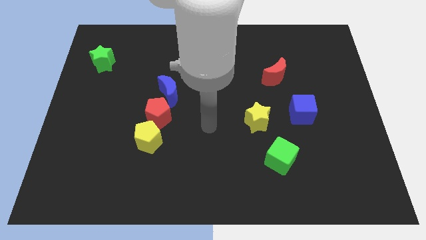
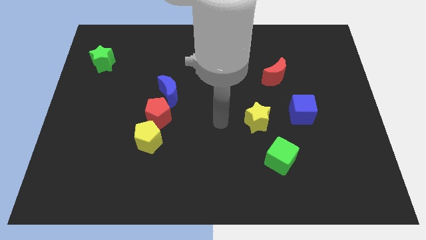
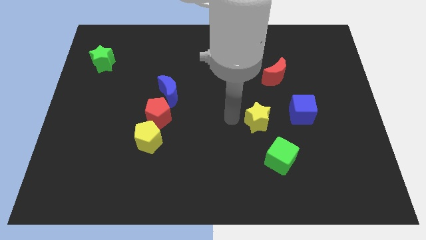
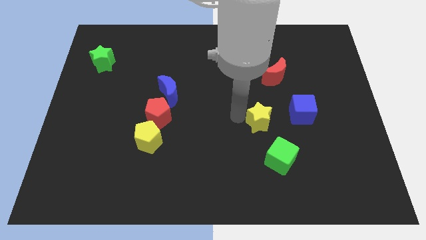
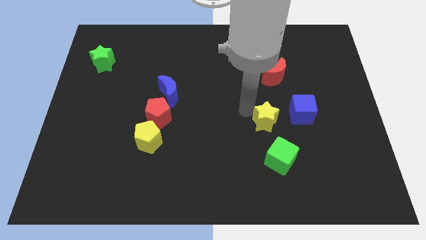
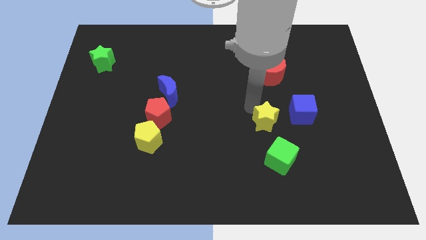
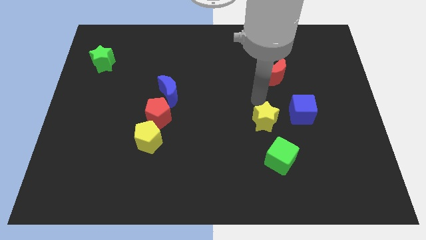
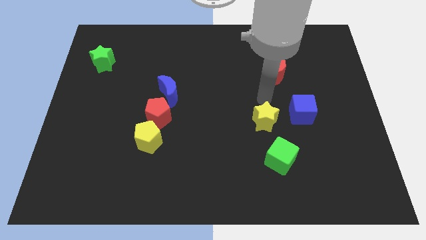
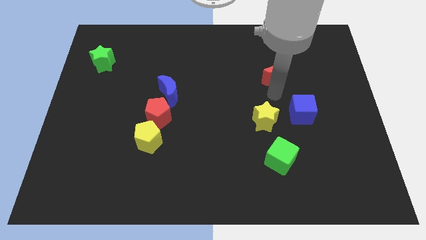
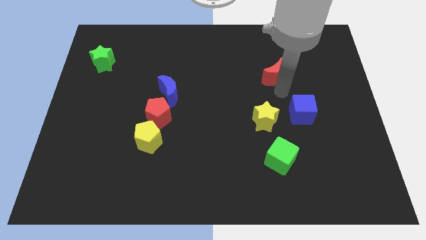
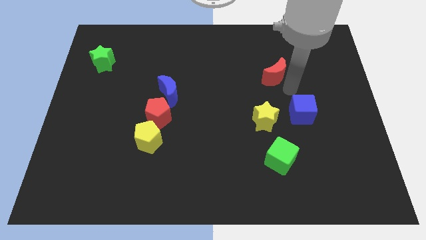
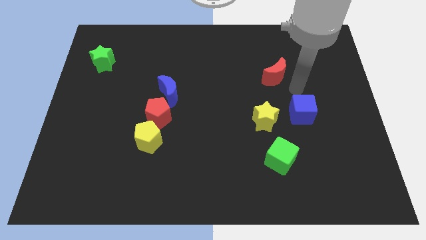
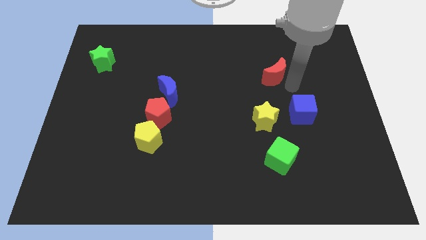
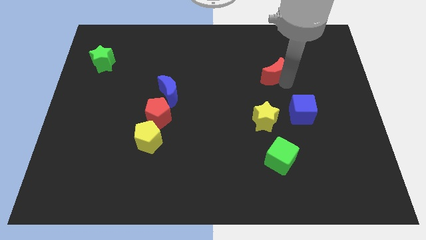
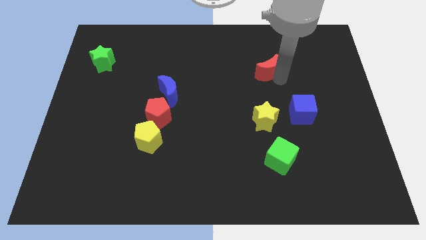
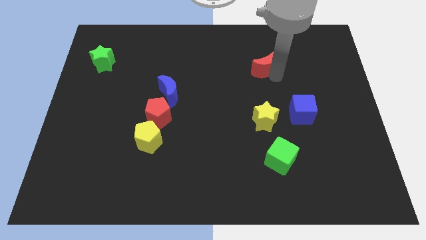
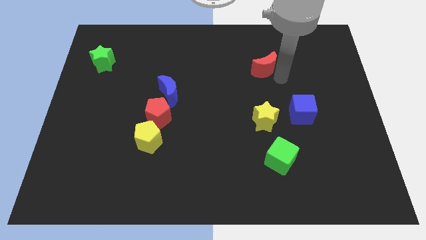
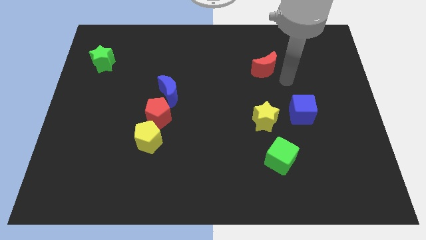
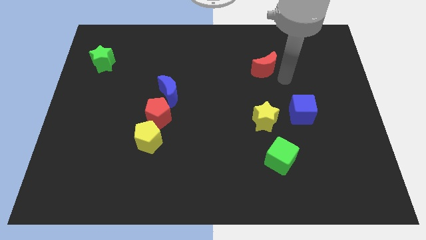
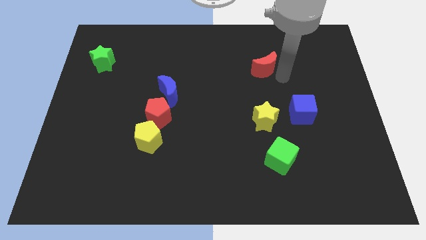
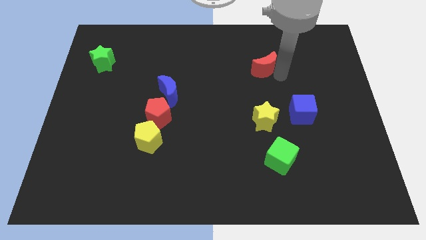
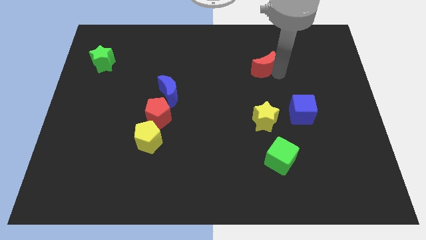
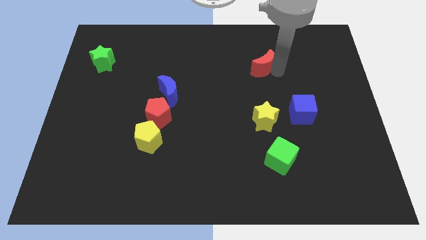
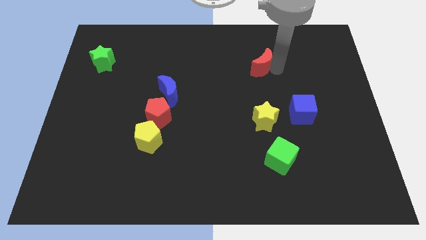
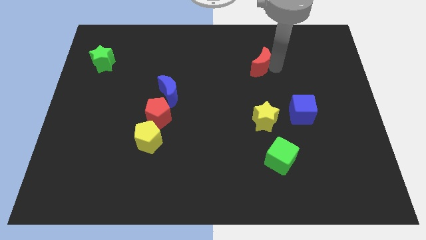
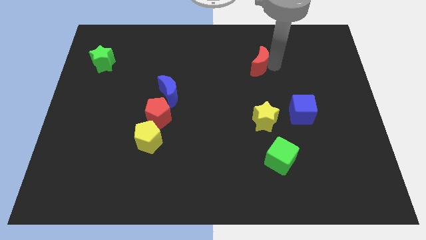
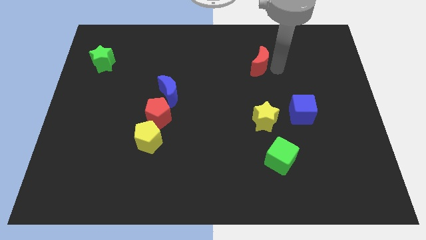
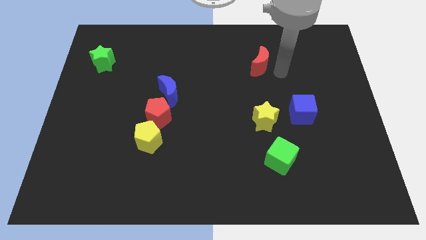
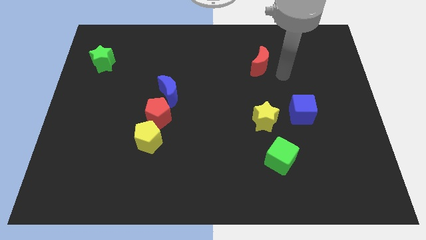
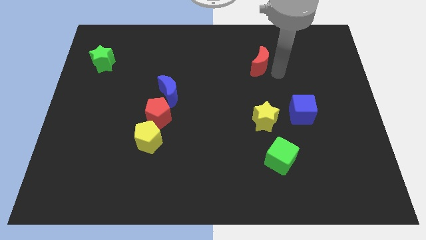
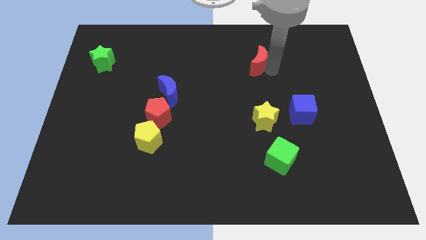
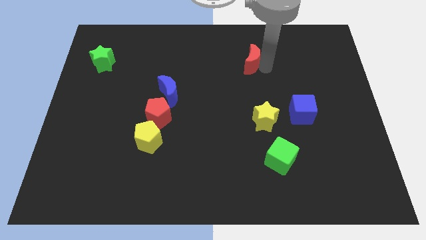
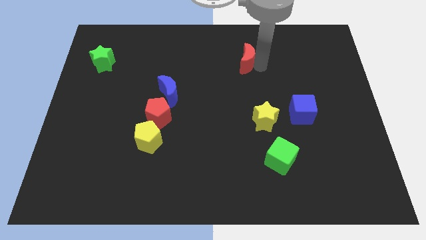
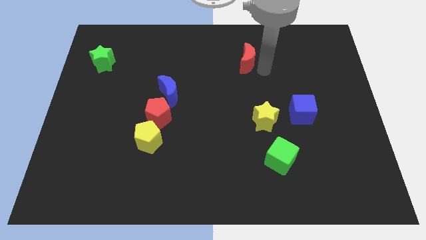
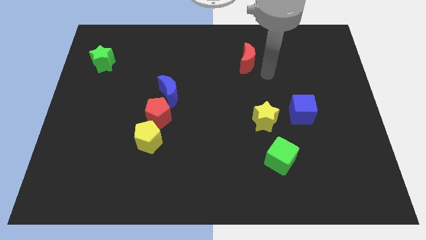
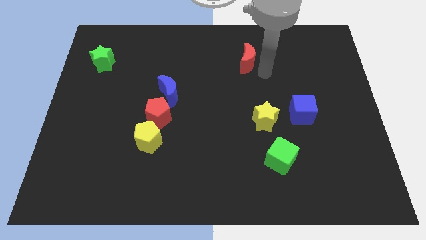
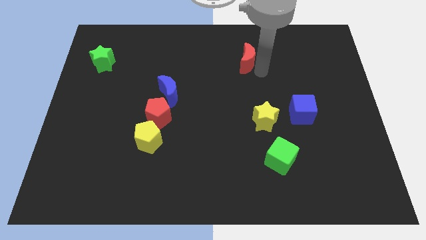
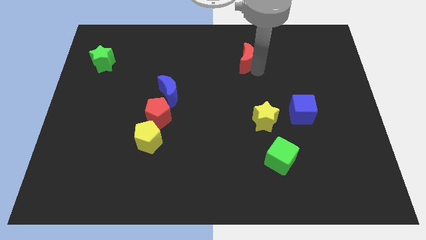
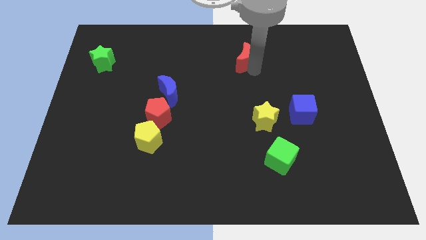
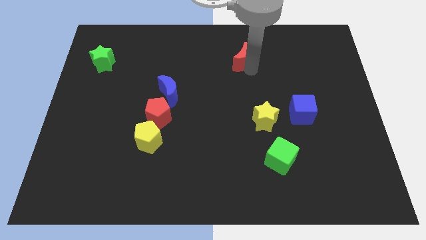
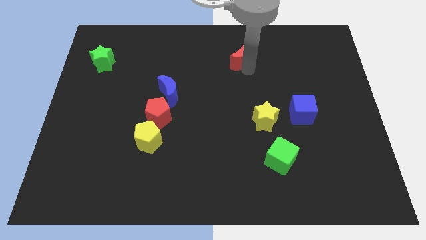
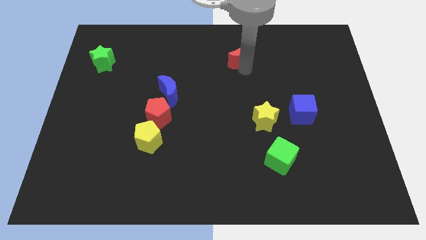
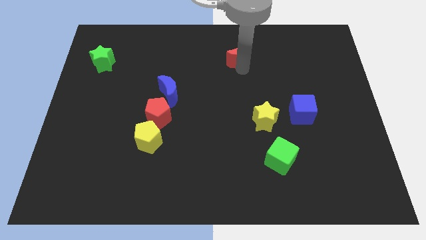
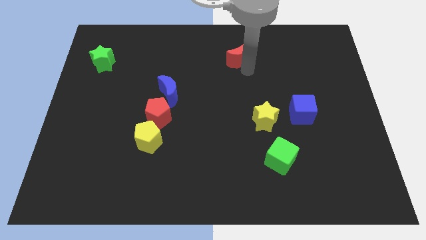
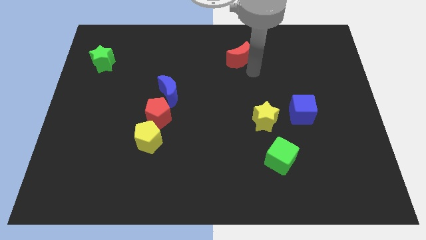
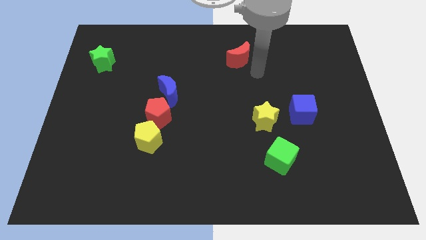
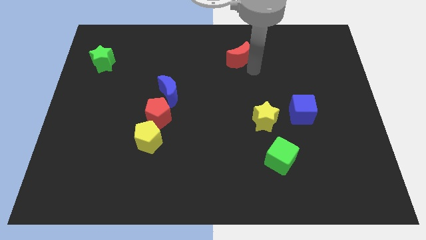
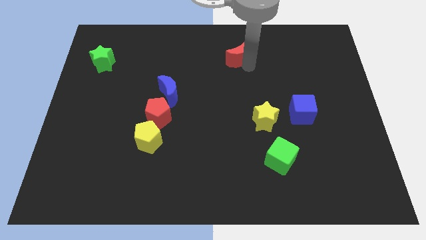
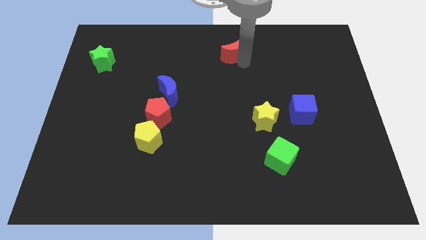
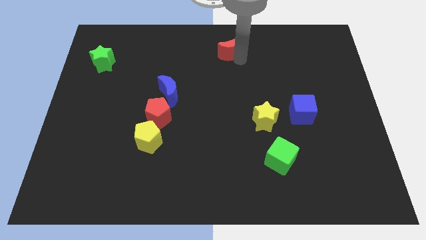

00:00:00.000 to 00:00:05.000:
push the red moon to the top

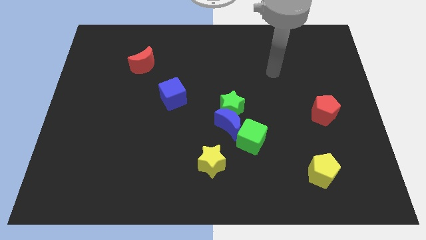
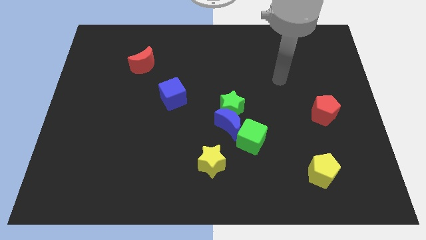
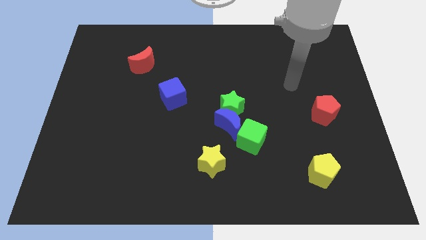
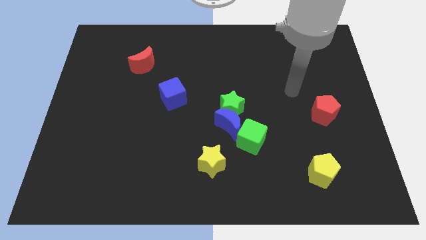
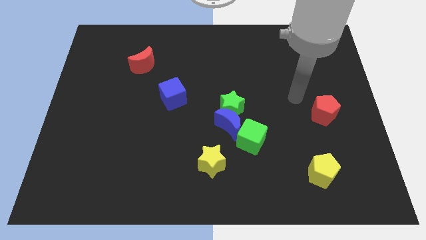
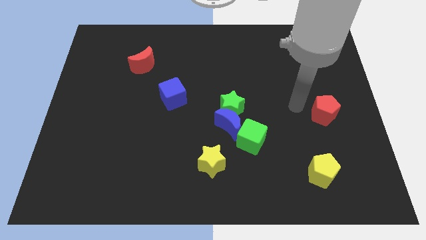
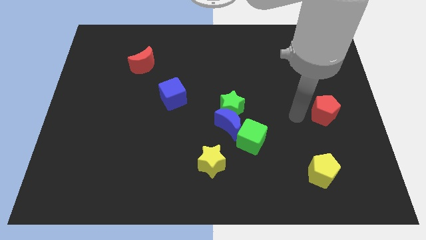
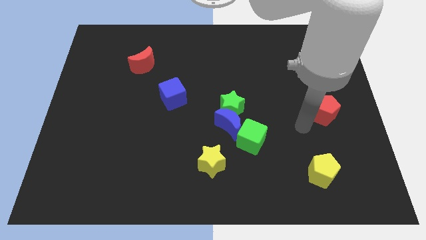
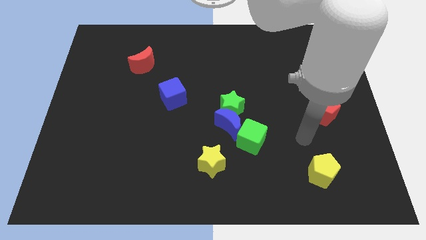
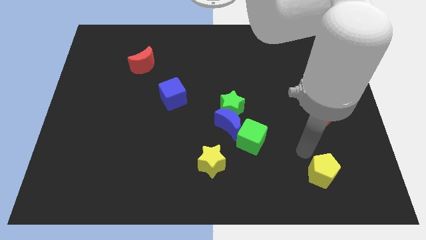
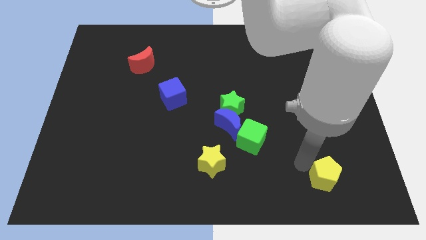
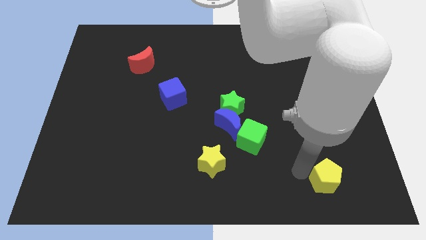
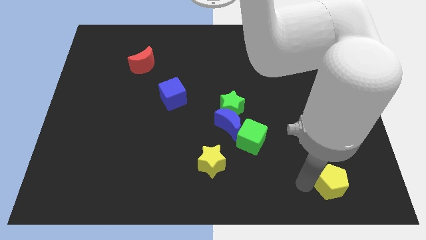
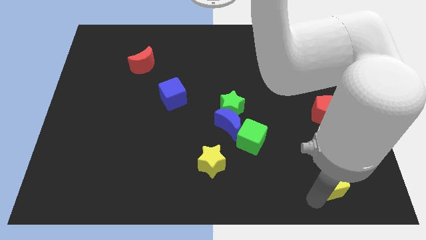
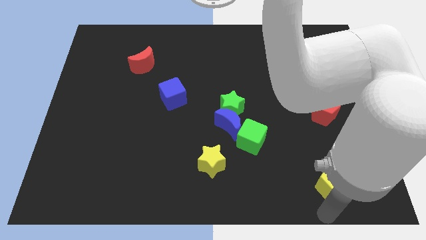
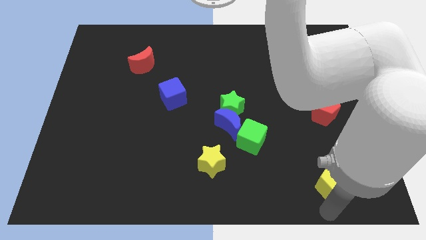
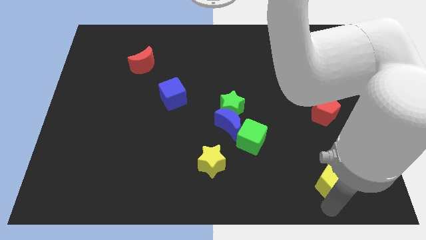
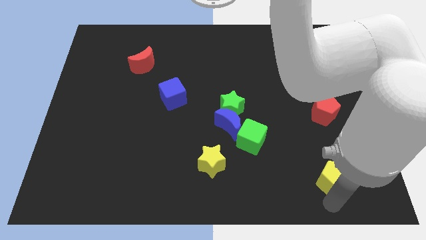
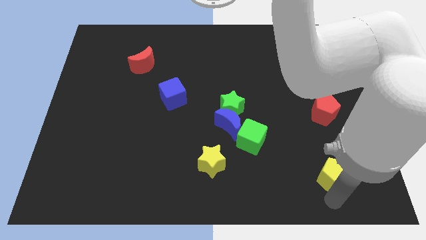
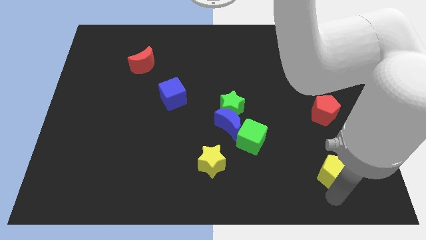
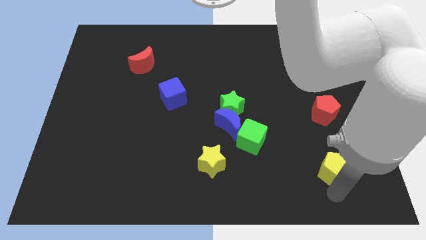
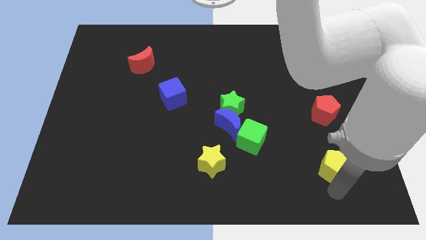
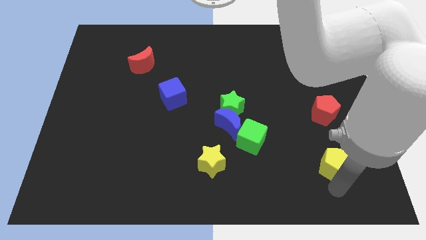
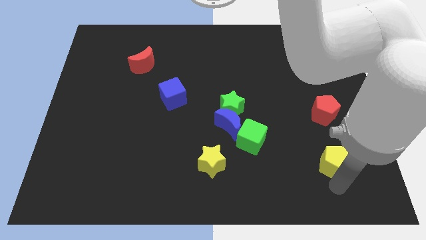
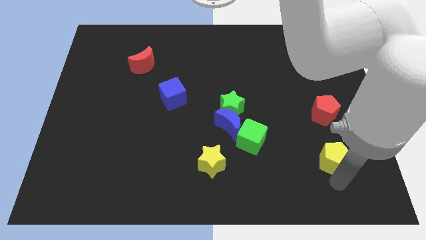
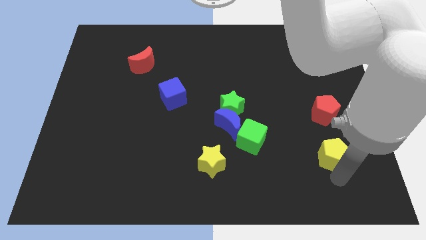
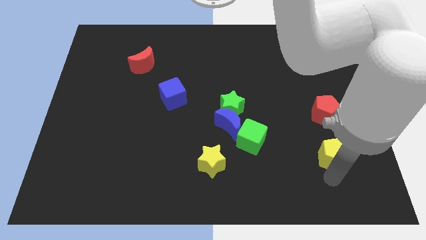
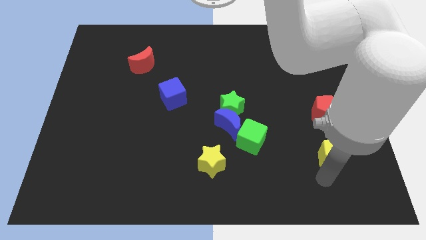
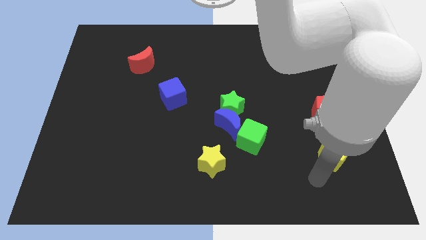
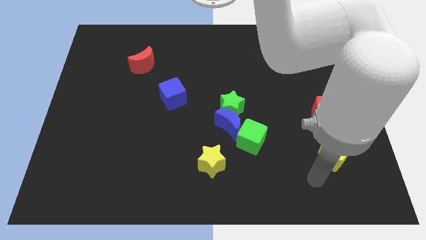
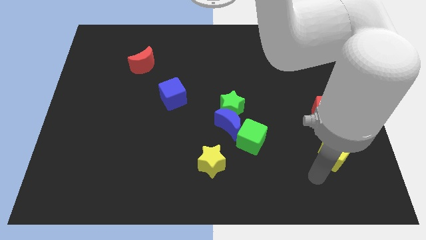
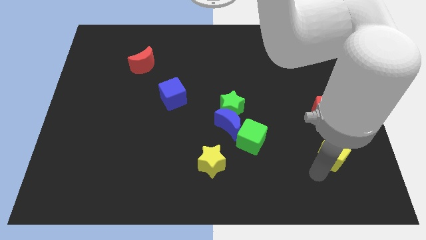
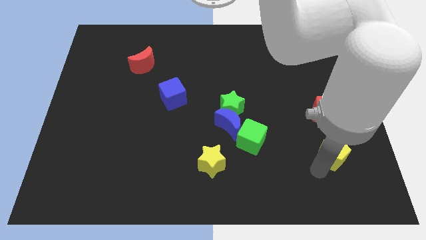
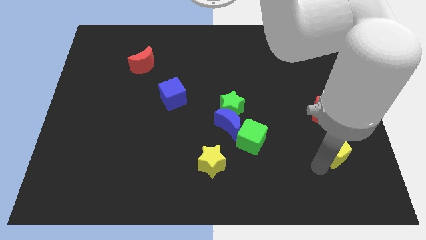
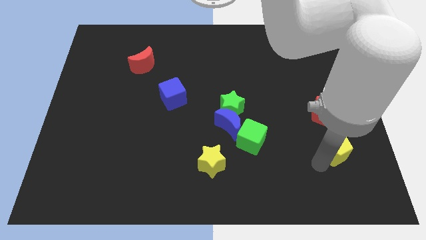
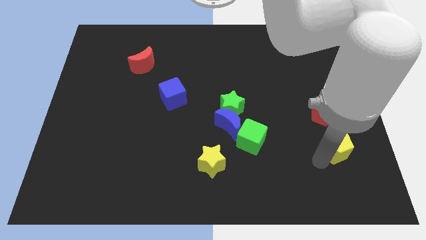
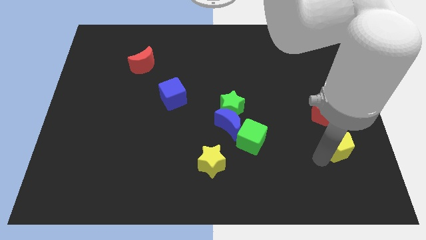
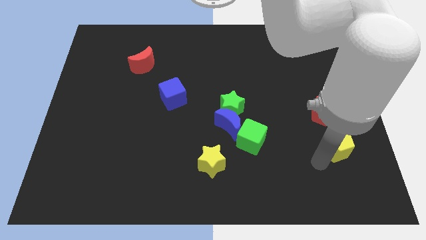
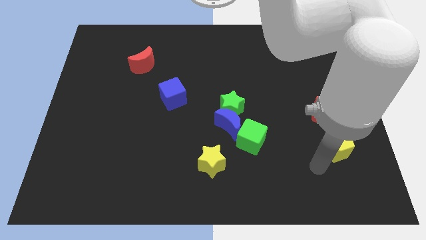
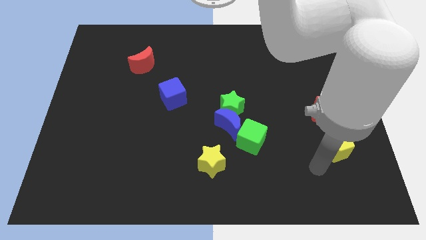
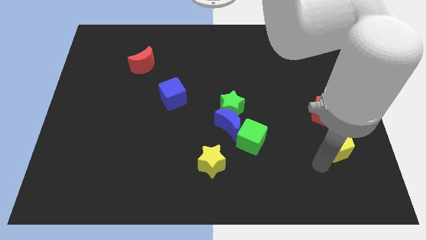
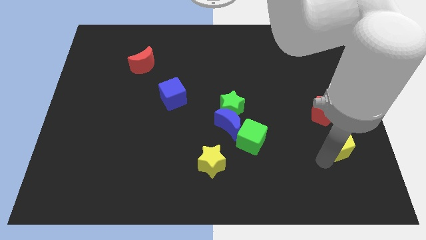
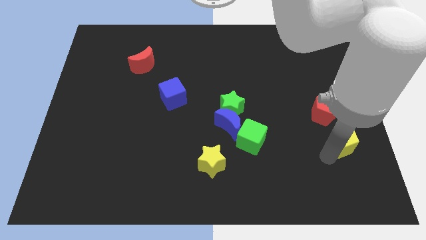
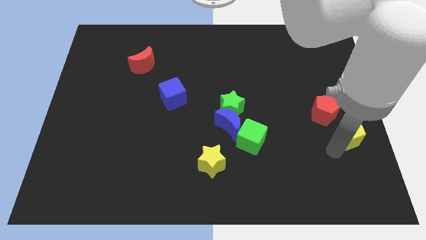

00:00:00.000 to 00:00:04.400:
push the yellow pentagon to the right side
